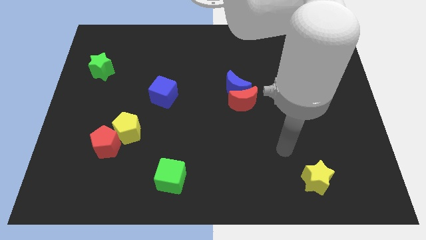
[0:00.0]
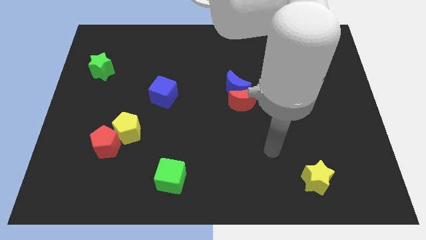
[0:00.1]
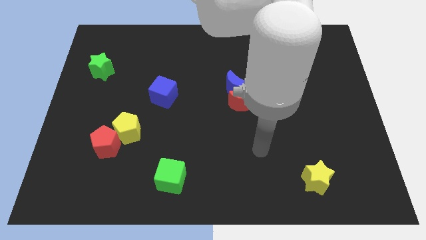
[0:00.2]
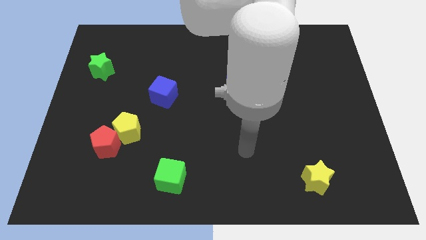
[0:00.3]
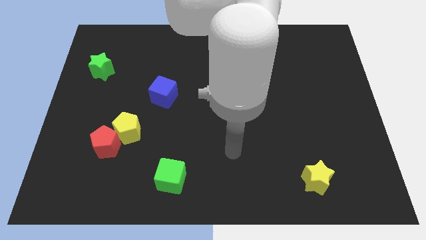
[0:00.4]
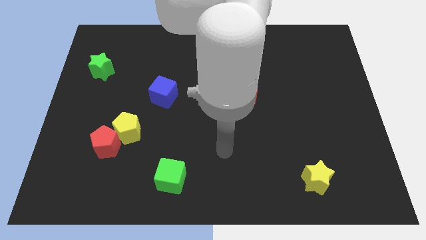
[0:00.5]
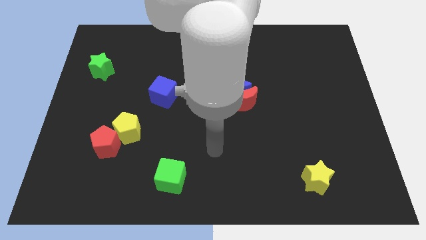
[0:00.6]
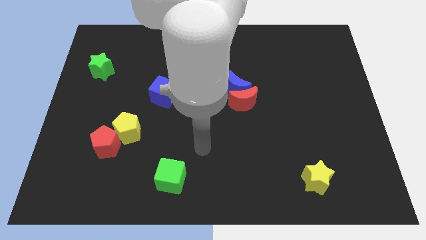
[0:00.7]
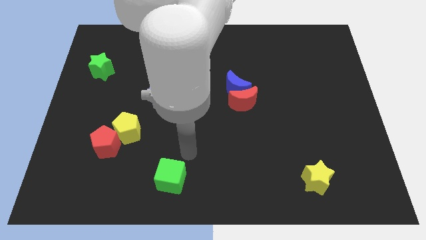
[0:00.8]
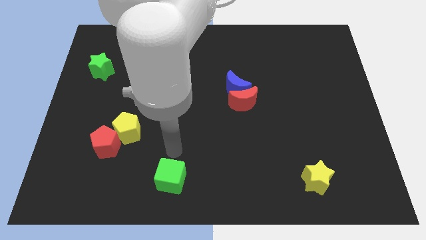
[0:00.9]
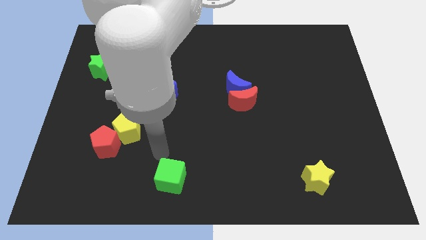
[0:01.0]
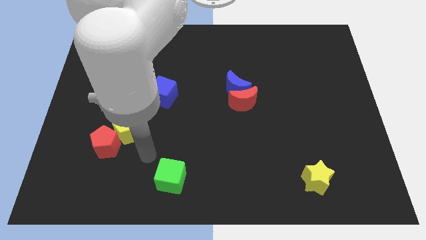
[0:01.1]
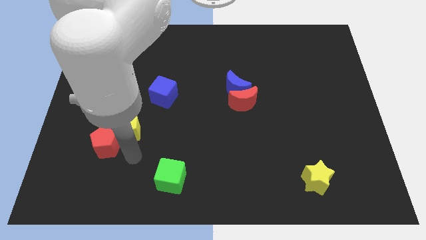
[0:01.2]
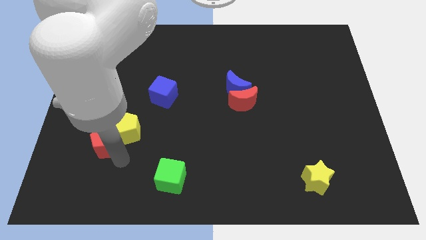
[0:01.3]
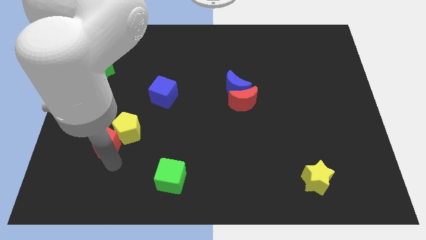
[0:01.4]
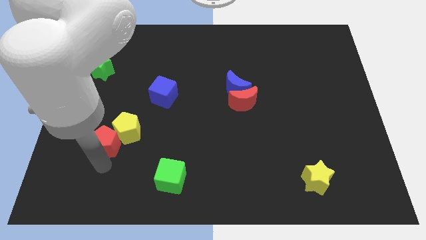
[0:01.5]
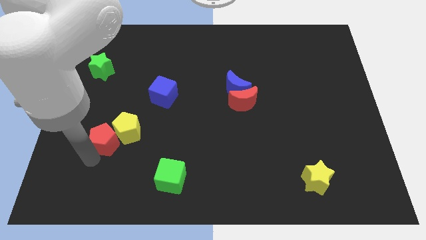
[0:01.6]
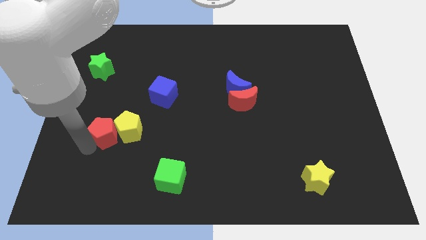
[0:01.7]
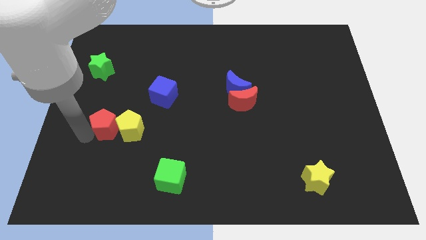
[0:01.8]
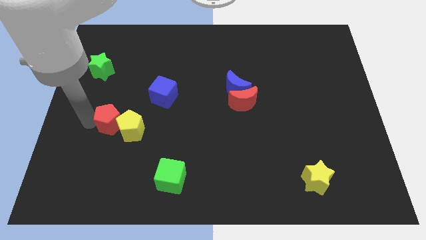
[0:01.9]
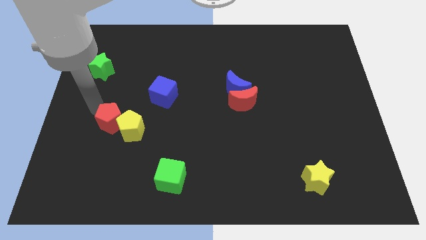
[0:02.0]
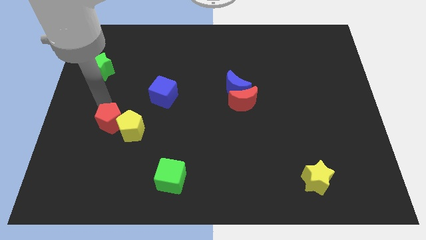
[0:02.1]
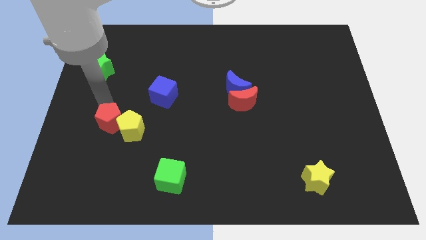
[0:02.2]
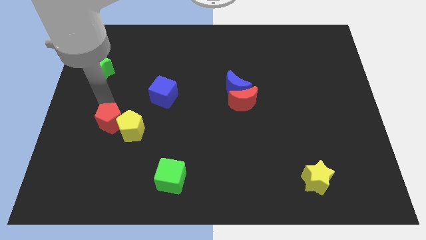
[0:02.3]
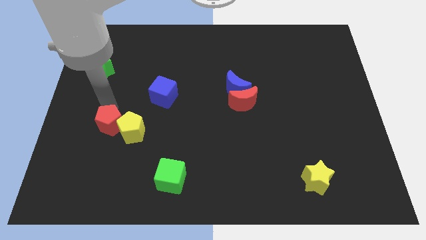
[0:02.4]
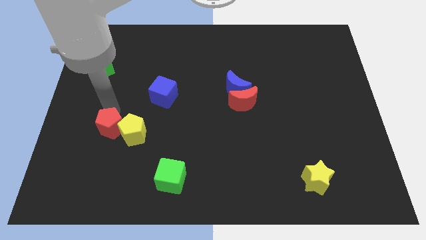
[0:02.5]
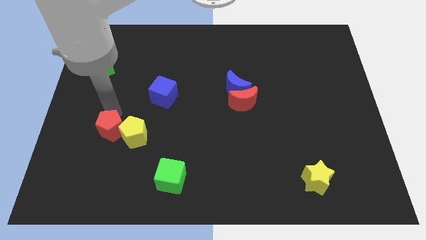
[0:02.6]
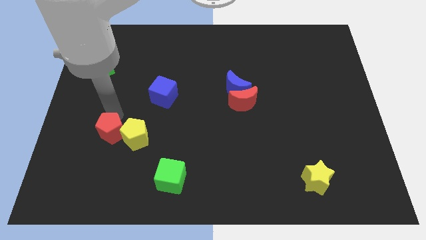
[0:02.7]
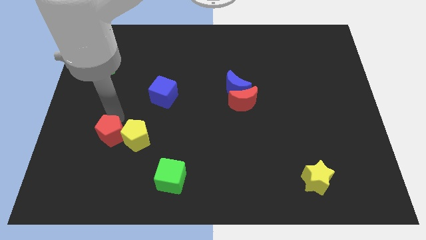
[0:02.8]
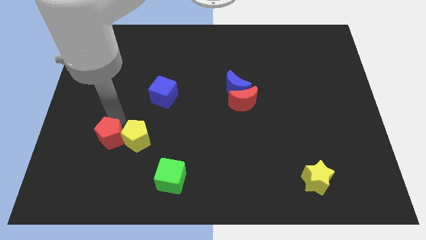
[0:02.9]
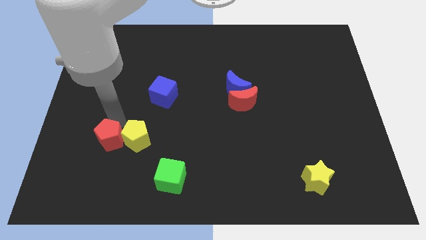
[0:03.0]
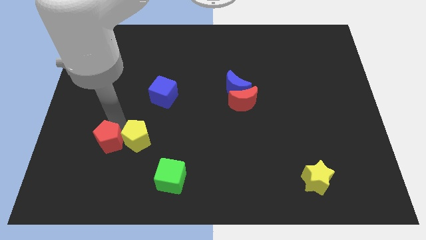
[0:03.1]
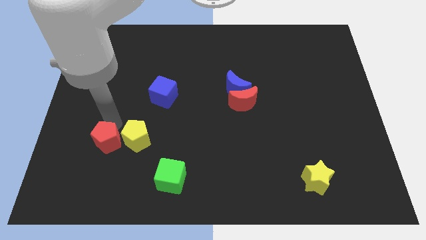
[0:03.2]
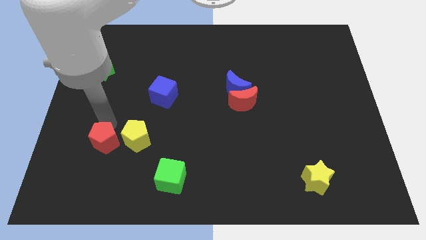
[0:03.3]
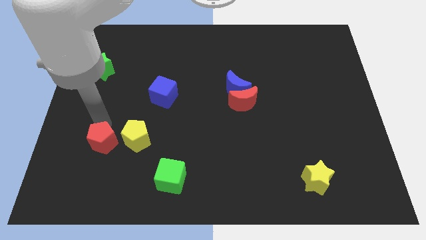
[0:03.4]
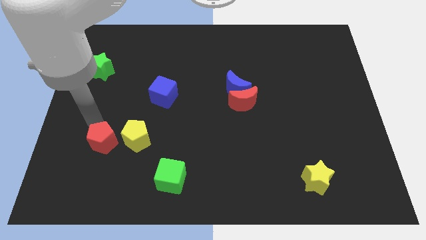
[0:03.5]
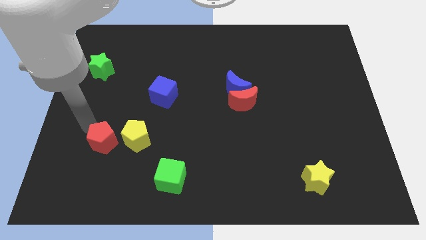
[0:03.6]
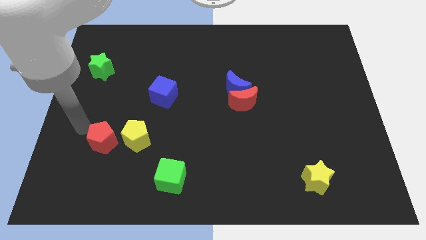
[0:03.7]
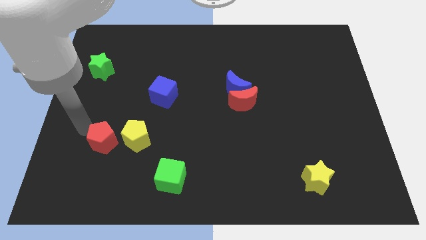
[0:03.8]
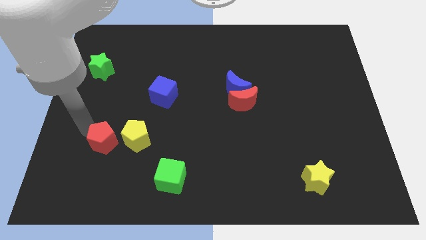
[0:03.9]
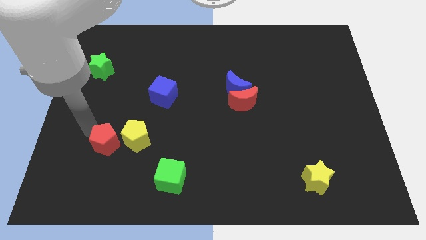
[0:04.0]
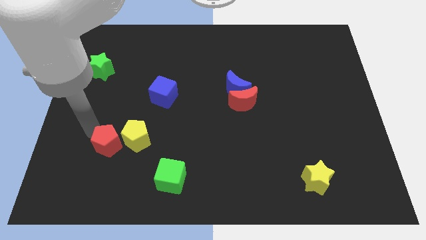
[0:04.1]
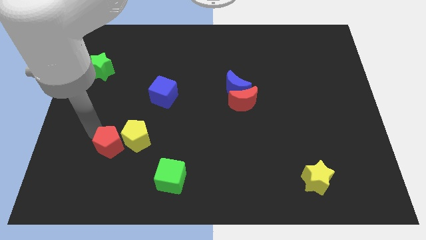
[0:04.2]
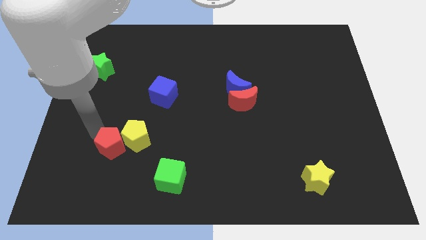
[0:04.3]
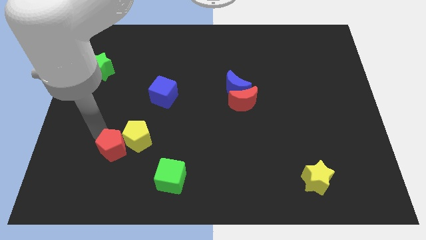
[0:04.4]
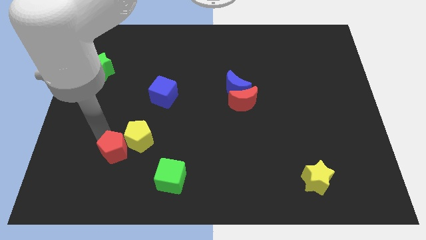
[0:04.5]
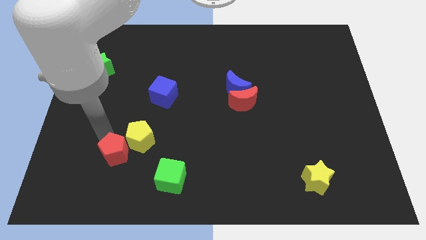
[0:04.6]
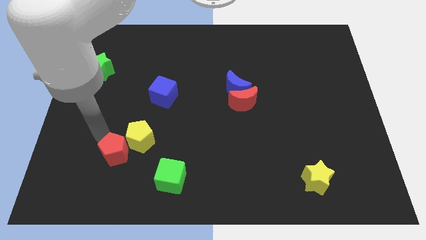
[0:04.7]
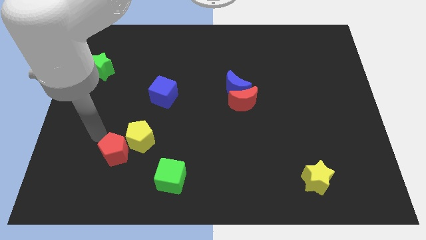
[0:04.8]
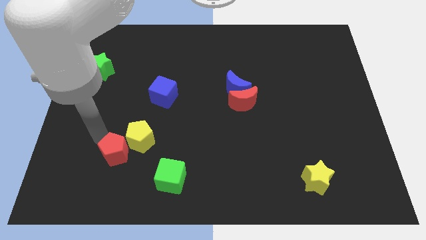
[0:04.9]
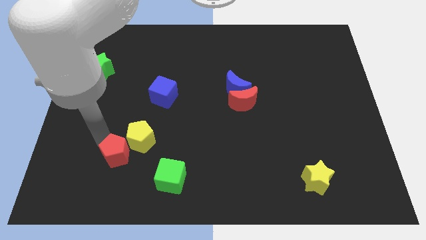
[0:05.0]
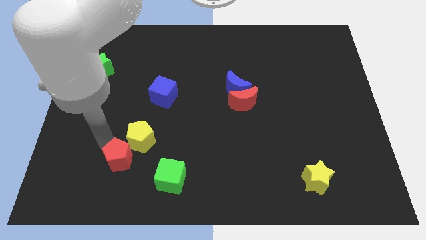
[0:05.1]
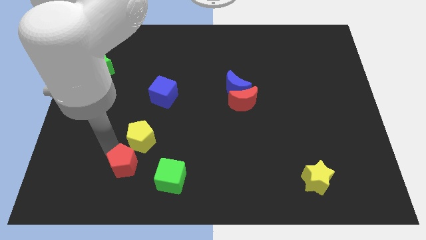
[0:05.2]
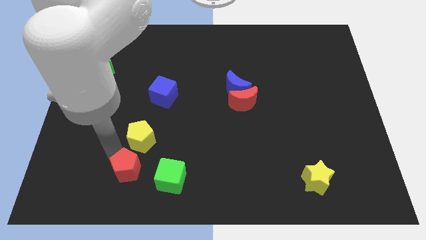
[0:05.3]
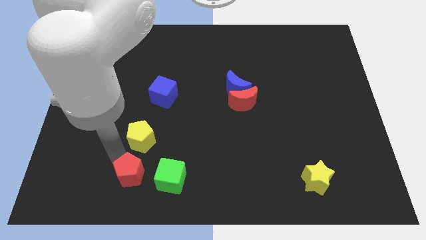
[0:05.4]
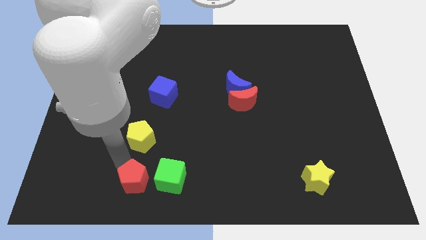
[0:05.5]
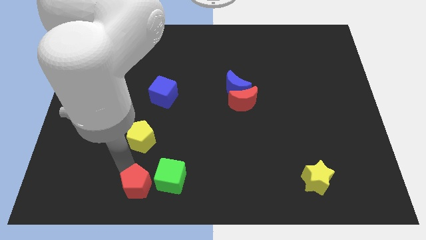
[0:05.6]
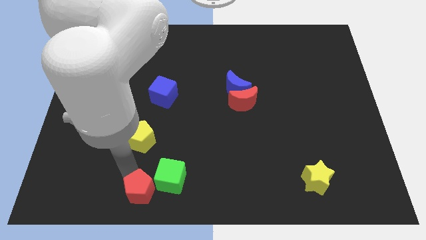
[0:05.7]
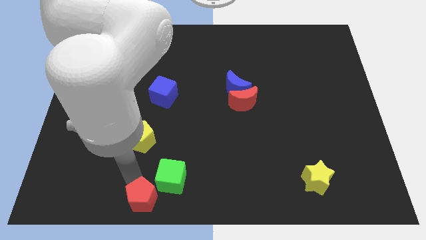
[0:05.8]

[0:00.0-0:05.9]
put the red pentagon to the bottom side
